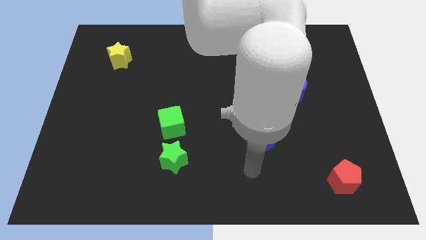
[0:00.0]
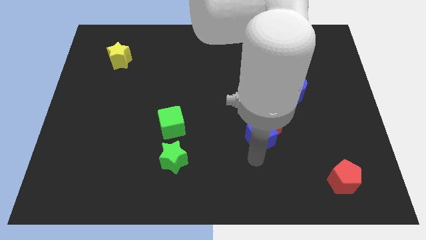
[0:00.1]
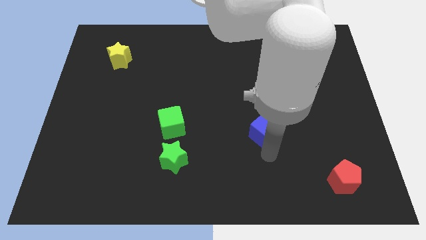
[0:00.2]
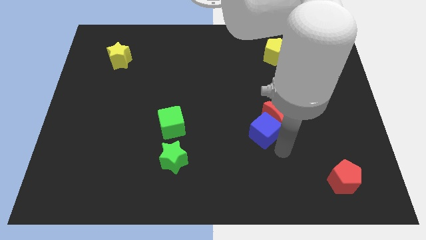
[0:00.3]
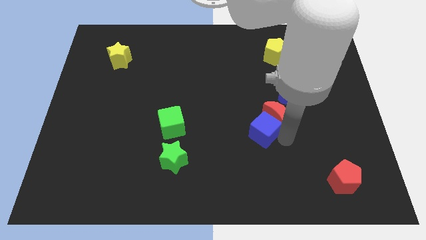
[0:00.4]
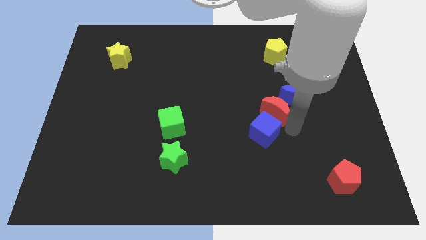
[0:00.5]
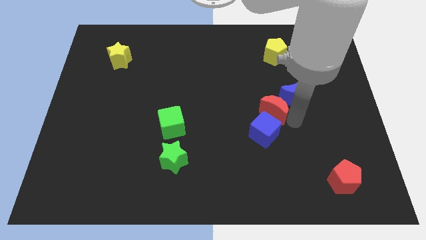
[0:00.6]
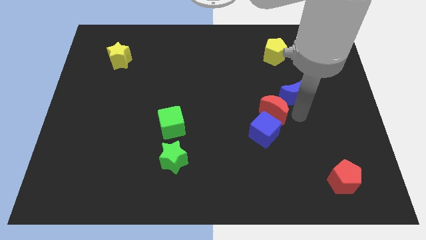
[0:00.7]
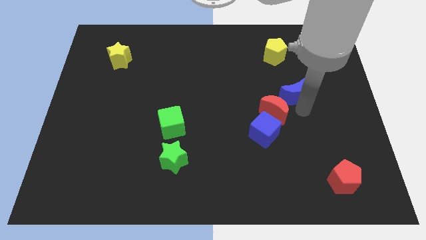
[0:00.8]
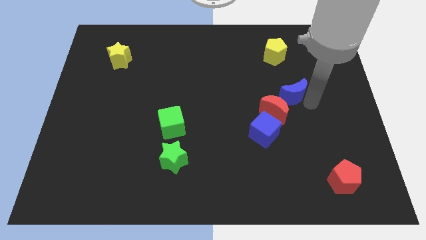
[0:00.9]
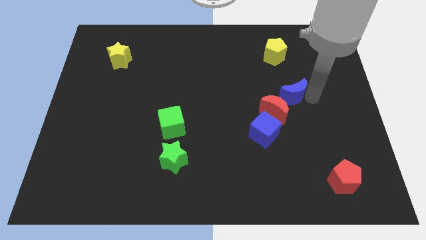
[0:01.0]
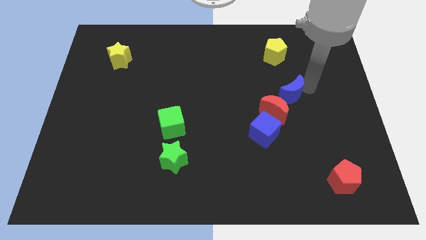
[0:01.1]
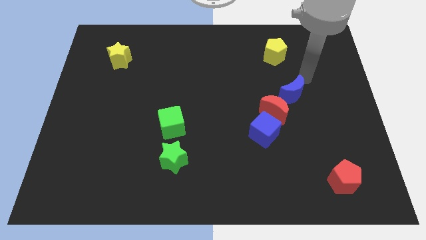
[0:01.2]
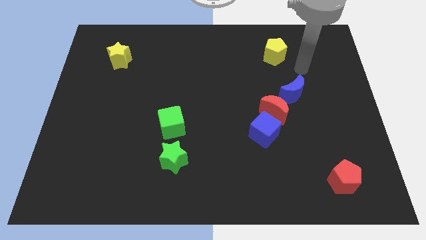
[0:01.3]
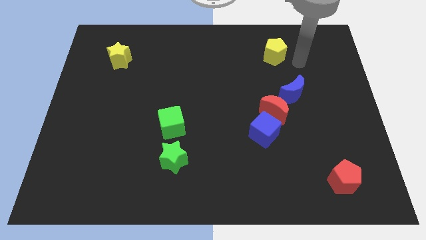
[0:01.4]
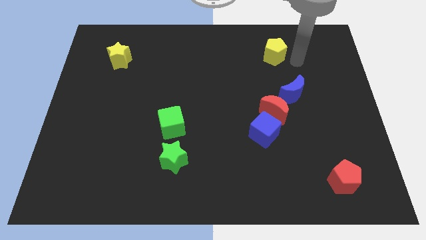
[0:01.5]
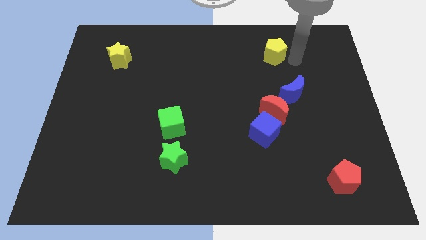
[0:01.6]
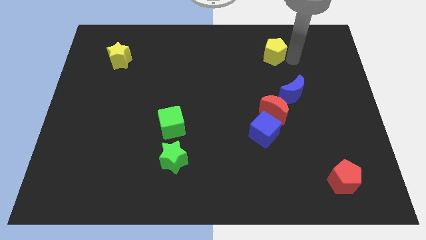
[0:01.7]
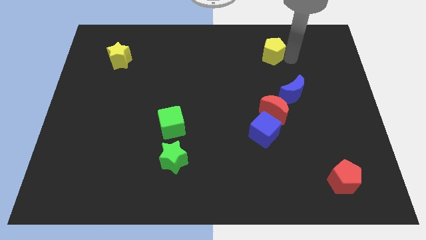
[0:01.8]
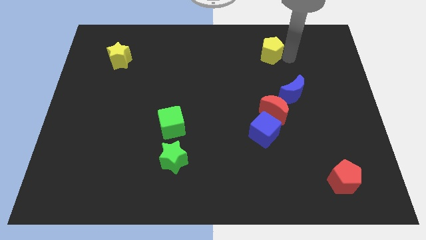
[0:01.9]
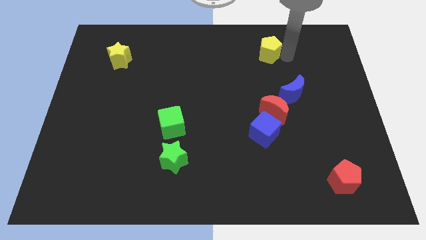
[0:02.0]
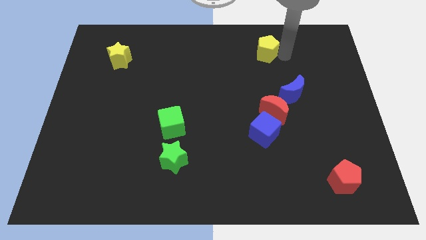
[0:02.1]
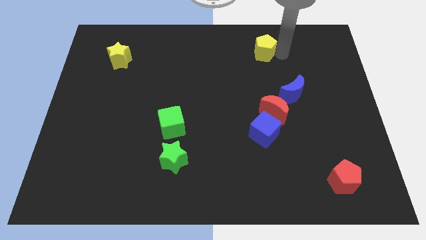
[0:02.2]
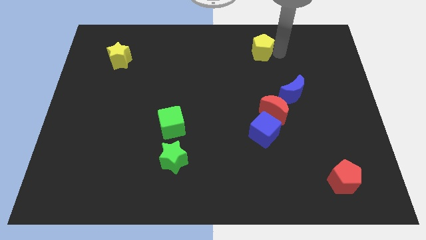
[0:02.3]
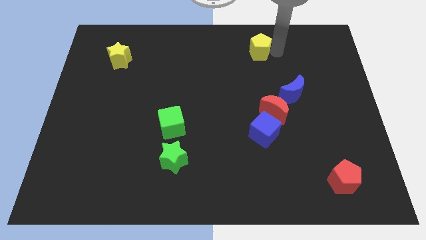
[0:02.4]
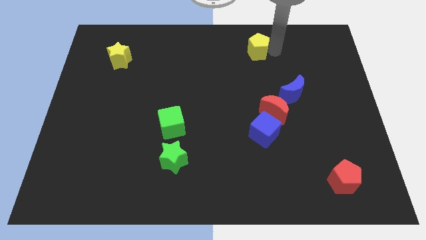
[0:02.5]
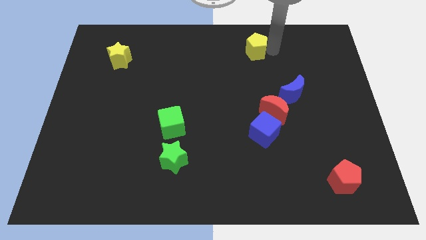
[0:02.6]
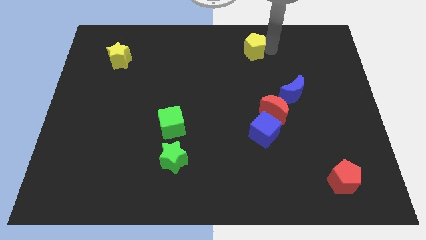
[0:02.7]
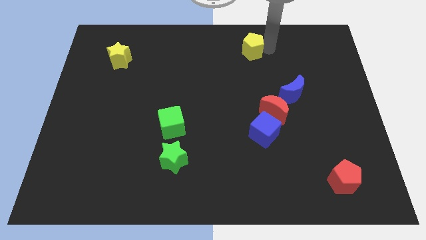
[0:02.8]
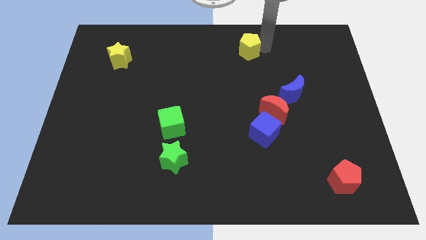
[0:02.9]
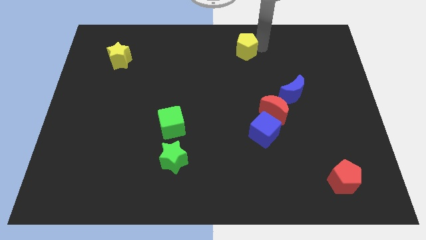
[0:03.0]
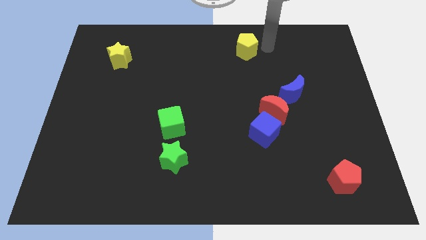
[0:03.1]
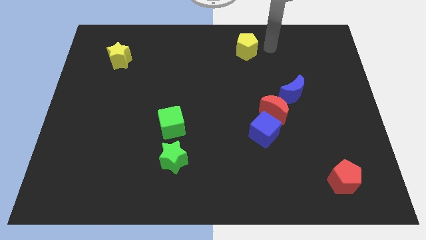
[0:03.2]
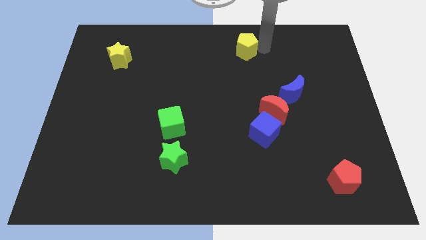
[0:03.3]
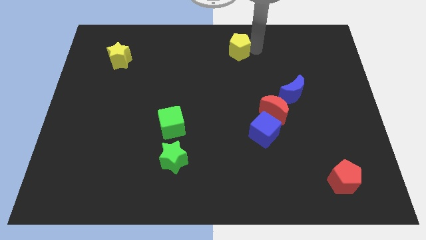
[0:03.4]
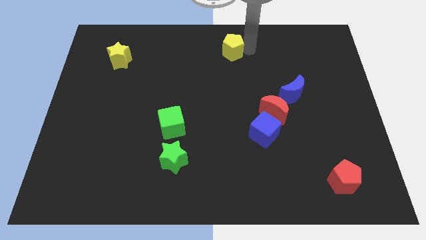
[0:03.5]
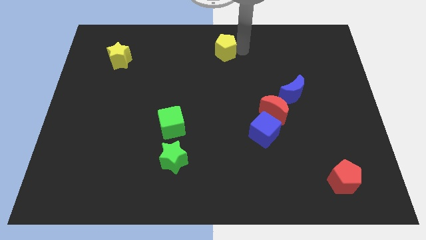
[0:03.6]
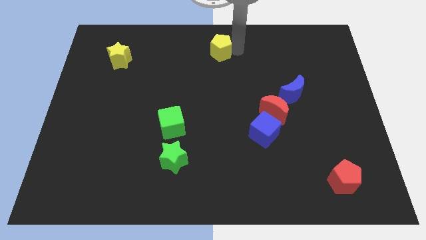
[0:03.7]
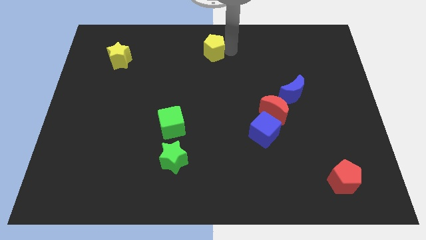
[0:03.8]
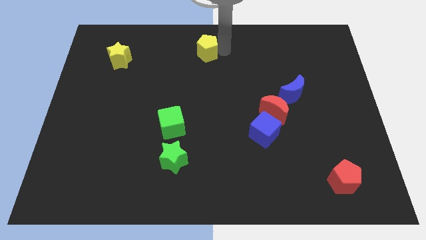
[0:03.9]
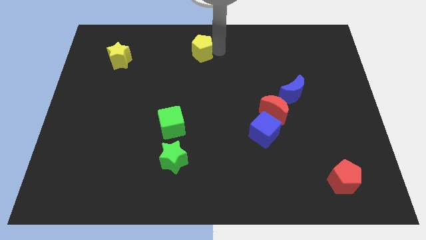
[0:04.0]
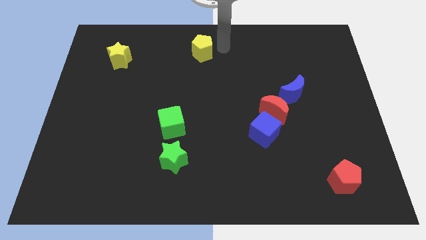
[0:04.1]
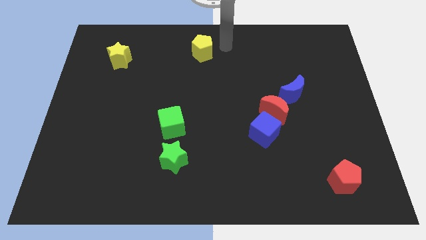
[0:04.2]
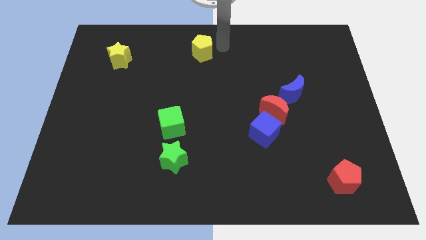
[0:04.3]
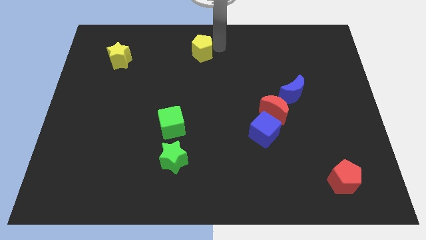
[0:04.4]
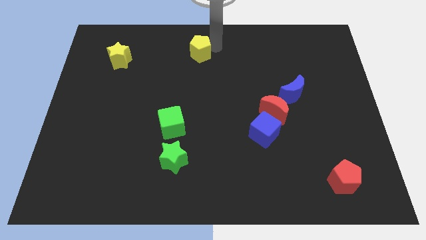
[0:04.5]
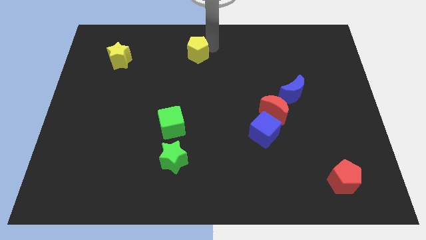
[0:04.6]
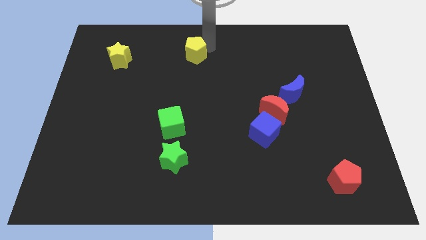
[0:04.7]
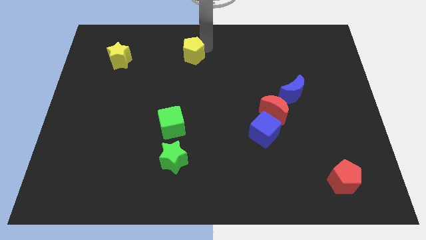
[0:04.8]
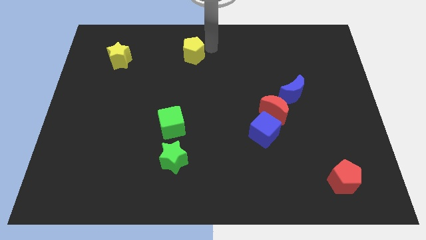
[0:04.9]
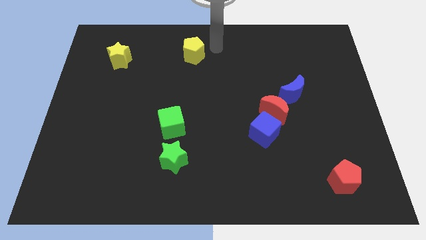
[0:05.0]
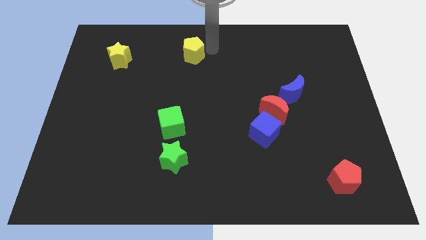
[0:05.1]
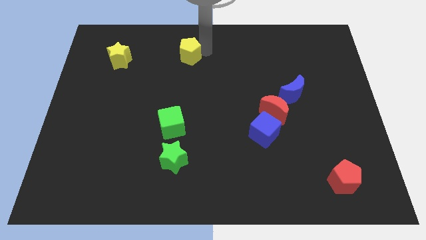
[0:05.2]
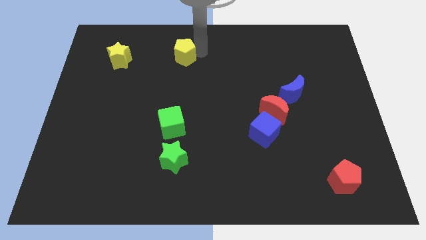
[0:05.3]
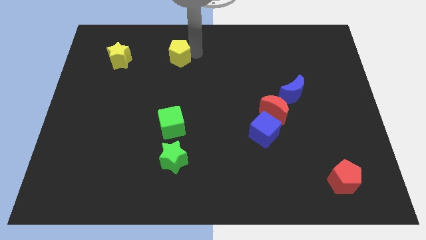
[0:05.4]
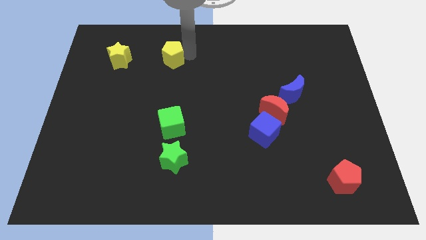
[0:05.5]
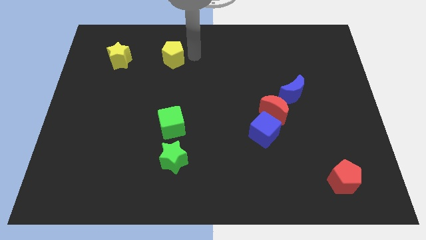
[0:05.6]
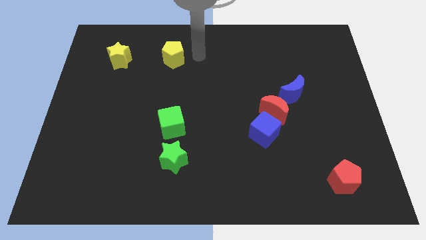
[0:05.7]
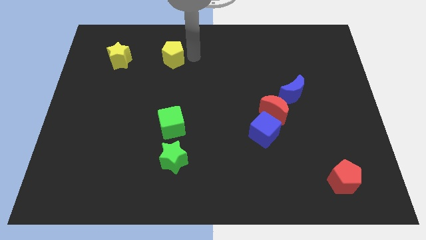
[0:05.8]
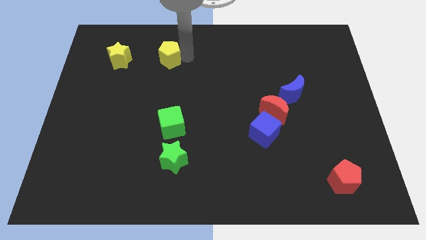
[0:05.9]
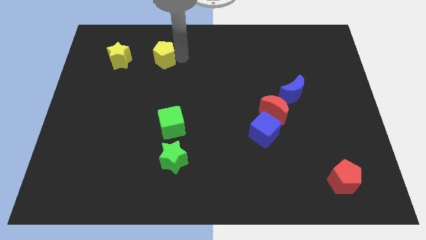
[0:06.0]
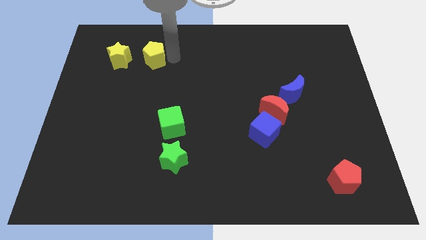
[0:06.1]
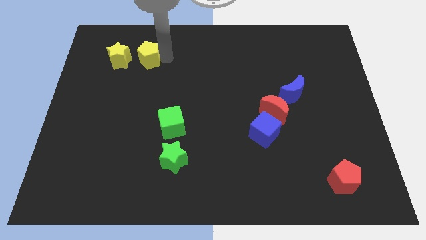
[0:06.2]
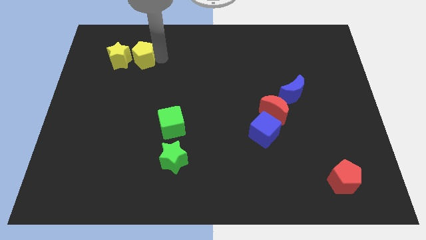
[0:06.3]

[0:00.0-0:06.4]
push the yellow pentagon next to the yellow star

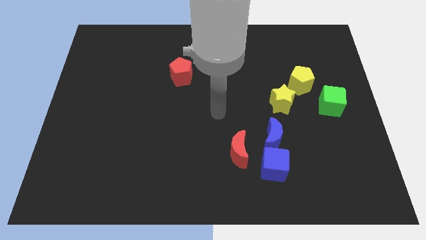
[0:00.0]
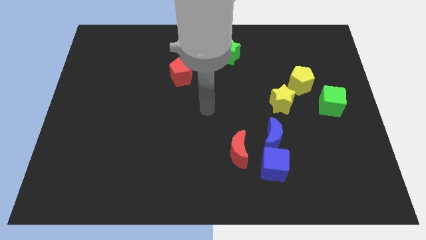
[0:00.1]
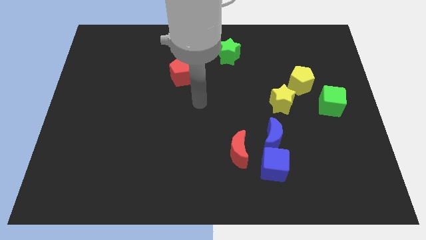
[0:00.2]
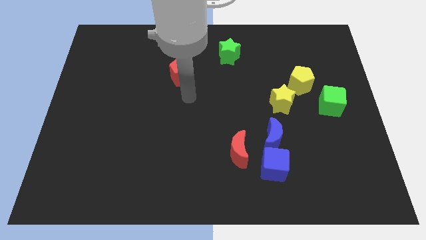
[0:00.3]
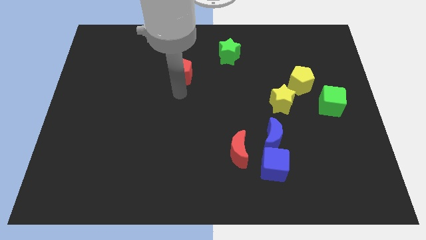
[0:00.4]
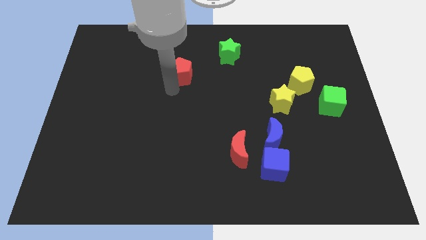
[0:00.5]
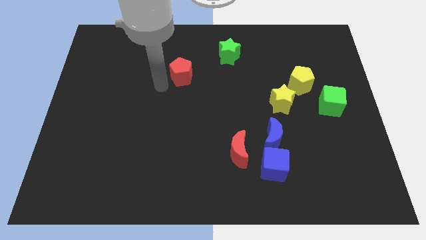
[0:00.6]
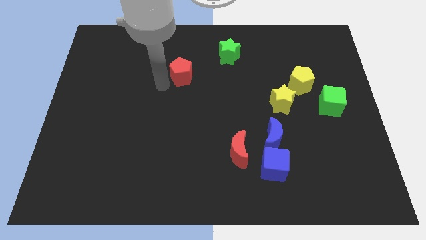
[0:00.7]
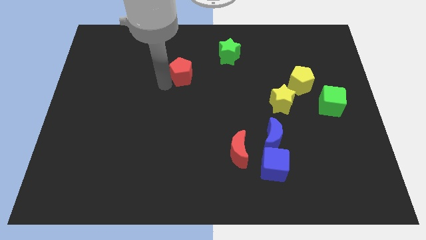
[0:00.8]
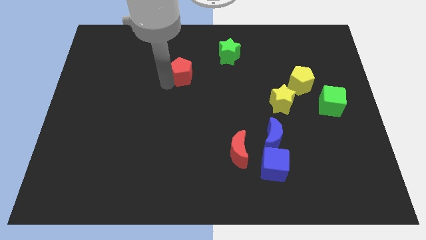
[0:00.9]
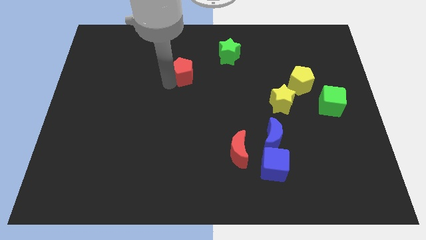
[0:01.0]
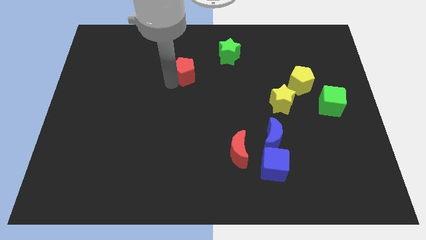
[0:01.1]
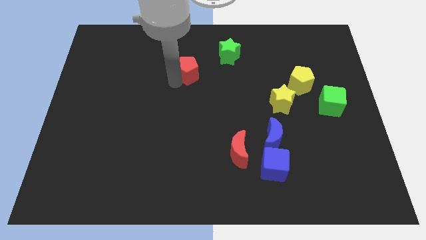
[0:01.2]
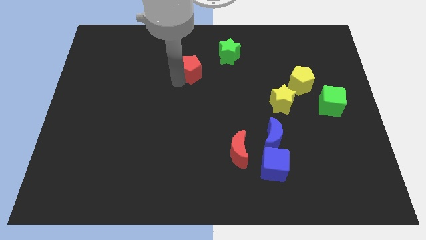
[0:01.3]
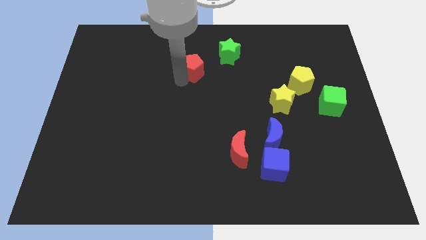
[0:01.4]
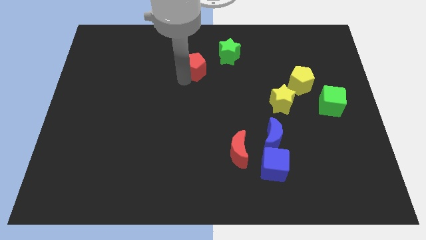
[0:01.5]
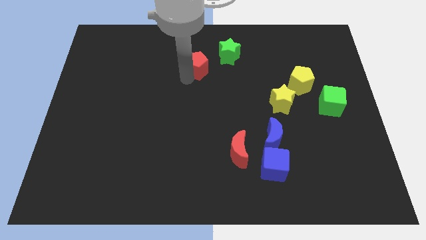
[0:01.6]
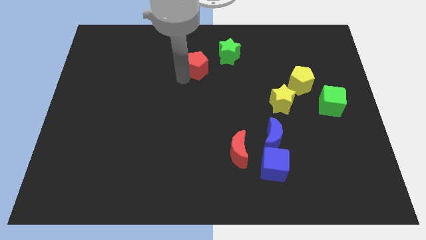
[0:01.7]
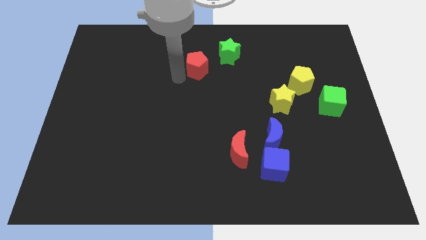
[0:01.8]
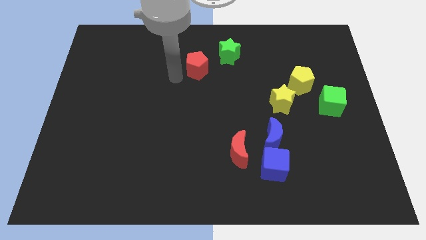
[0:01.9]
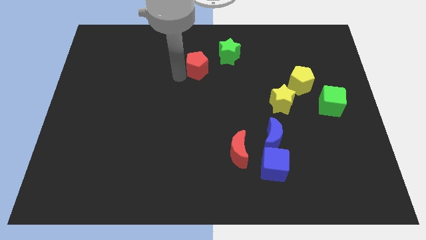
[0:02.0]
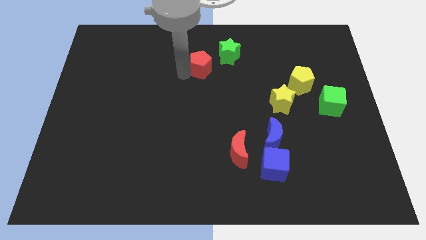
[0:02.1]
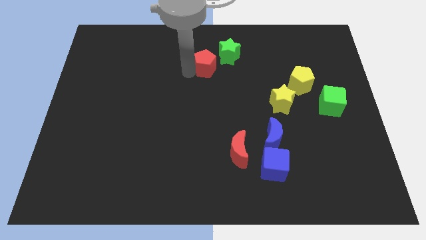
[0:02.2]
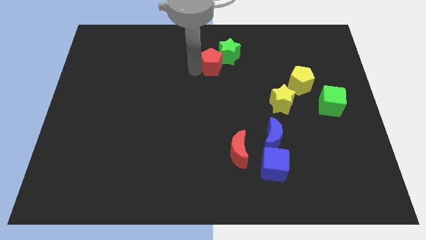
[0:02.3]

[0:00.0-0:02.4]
put the red pentagon close to the green star
